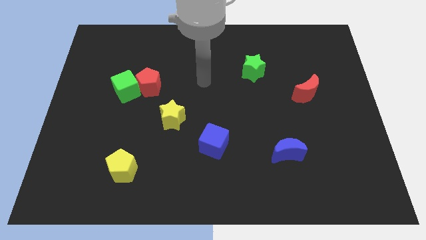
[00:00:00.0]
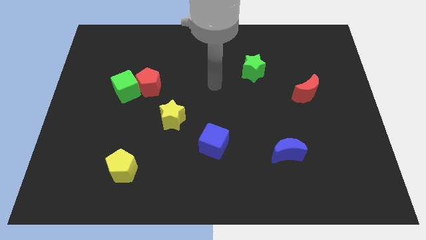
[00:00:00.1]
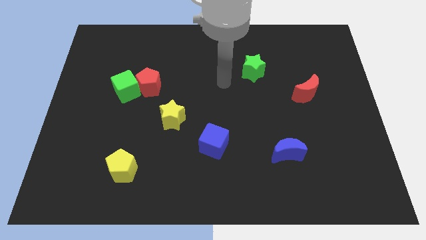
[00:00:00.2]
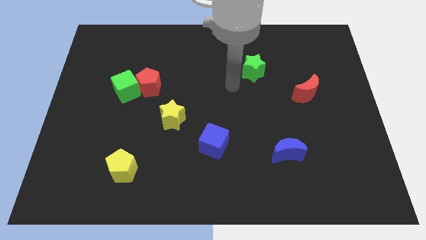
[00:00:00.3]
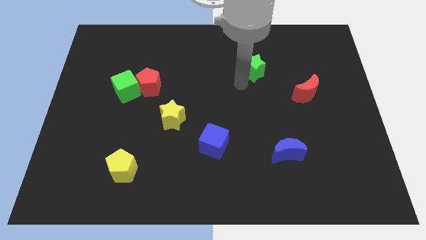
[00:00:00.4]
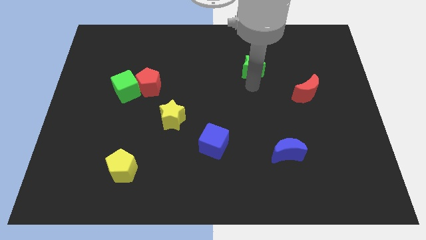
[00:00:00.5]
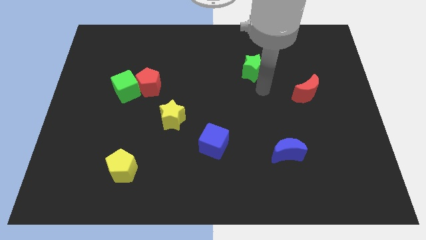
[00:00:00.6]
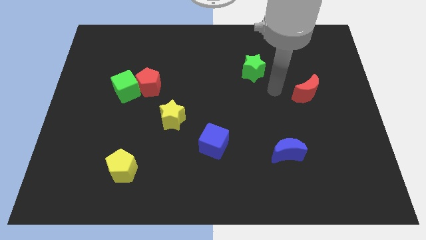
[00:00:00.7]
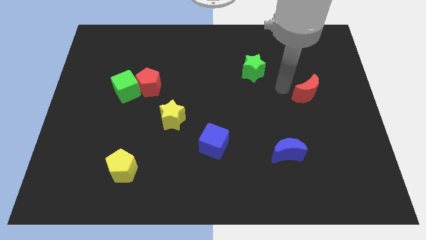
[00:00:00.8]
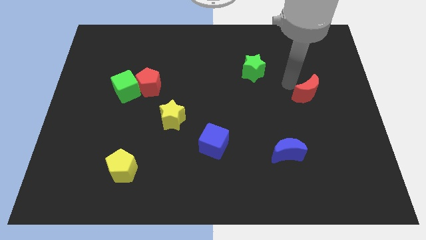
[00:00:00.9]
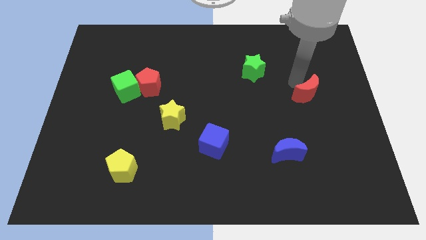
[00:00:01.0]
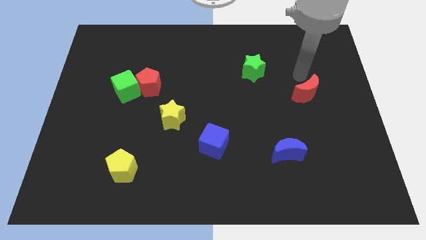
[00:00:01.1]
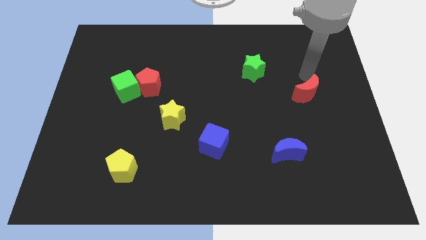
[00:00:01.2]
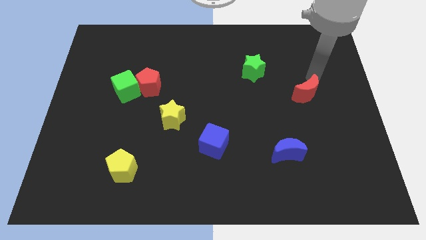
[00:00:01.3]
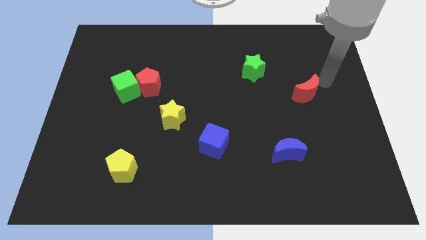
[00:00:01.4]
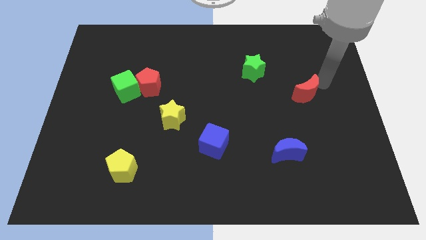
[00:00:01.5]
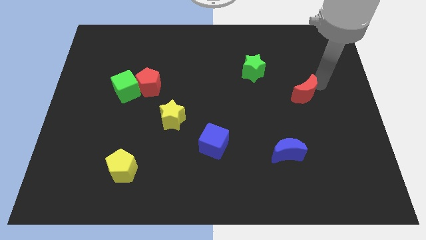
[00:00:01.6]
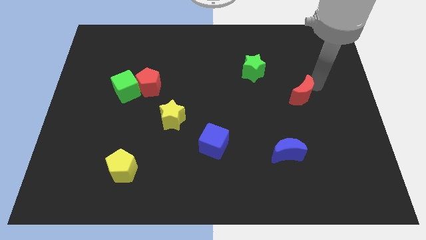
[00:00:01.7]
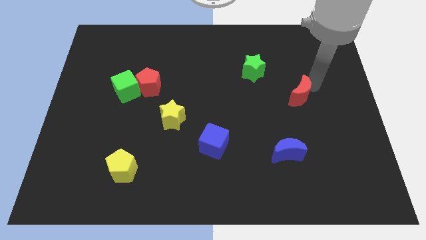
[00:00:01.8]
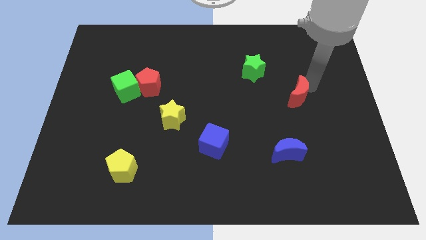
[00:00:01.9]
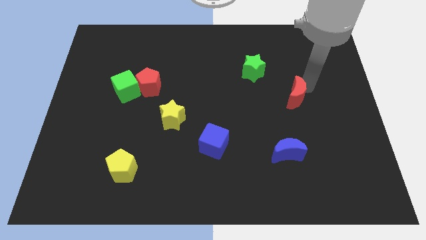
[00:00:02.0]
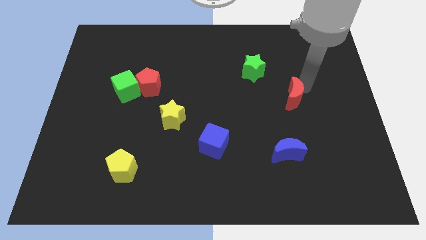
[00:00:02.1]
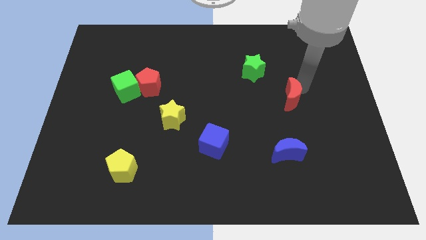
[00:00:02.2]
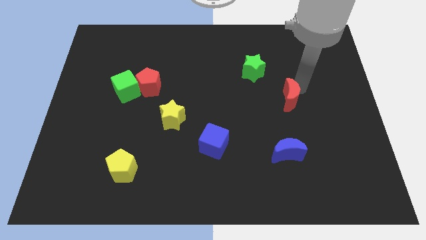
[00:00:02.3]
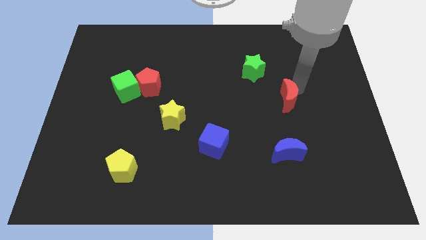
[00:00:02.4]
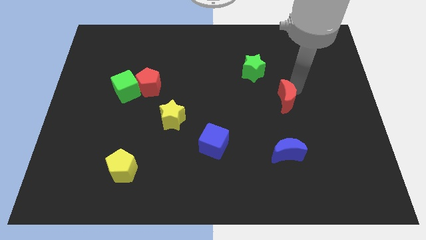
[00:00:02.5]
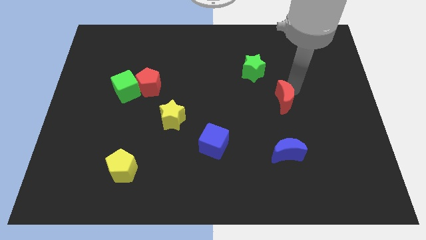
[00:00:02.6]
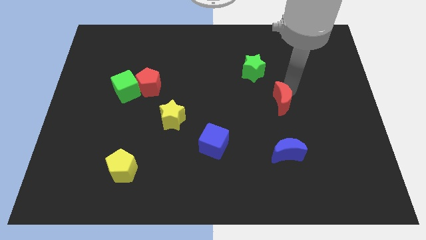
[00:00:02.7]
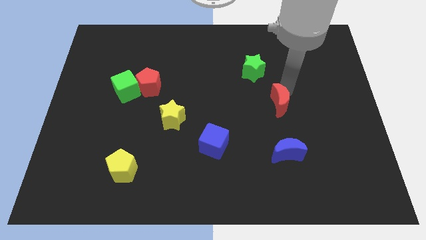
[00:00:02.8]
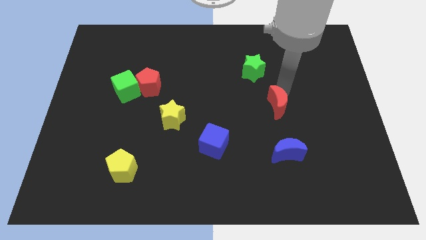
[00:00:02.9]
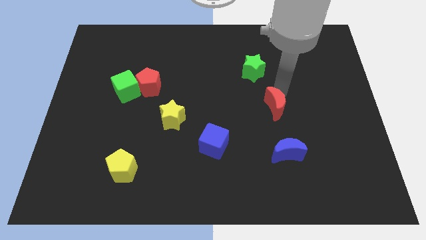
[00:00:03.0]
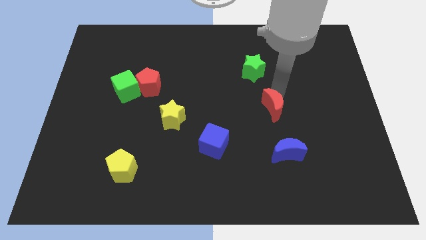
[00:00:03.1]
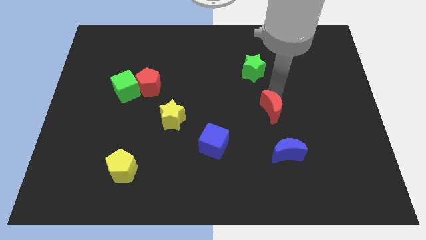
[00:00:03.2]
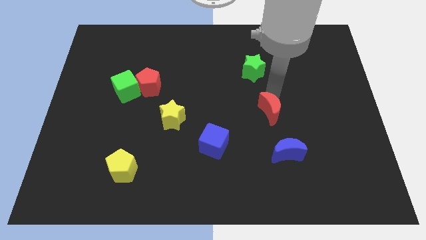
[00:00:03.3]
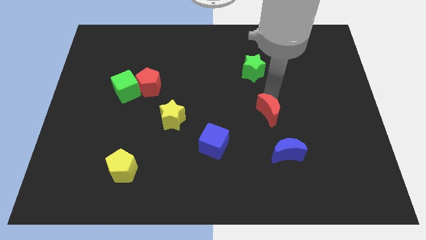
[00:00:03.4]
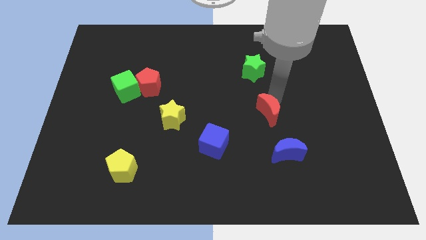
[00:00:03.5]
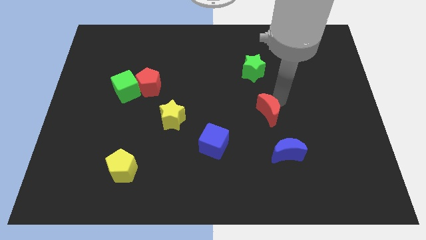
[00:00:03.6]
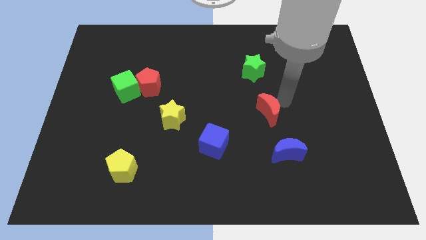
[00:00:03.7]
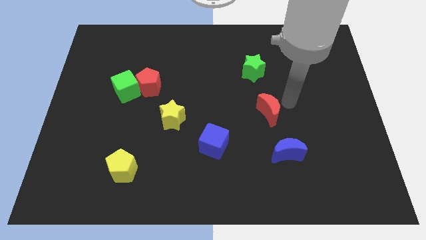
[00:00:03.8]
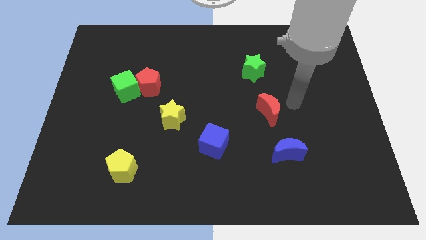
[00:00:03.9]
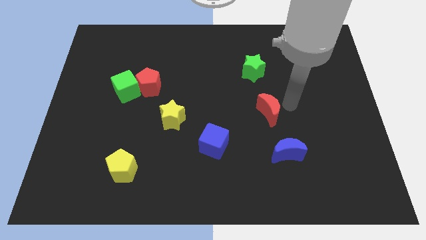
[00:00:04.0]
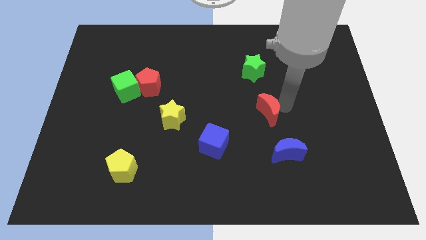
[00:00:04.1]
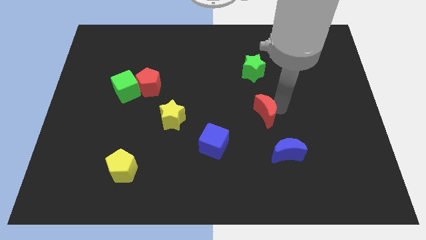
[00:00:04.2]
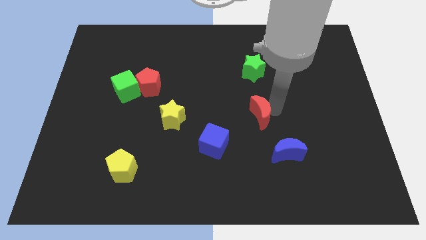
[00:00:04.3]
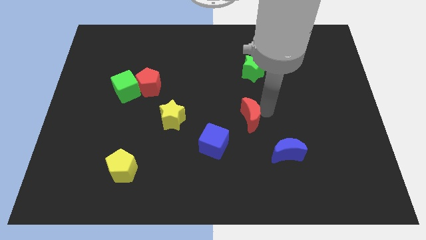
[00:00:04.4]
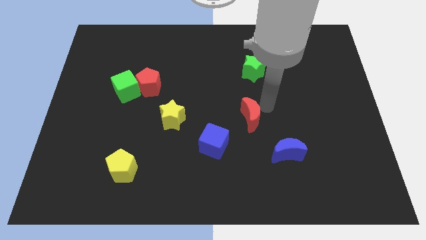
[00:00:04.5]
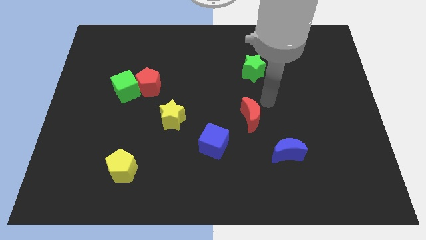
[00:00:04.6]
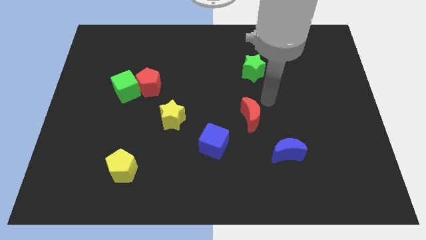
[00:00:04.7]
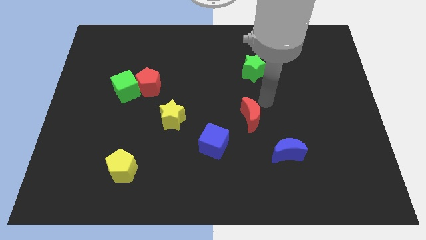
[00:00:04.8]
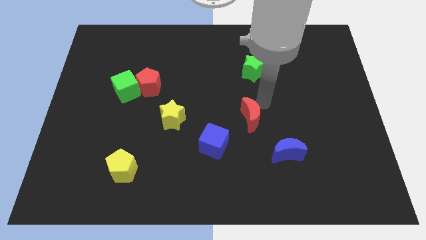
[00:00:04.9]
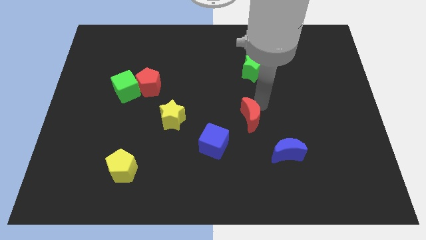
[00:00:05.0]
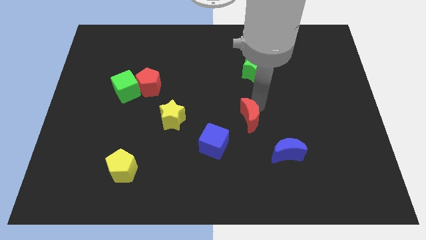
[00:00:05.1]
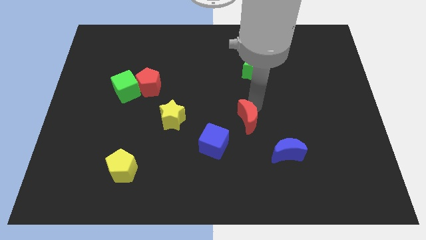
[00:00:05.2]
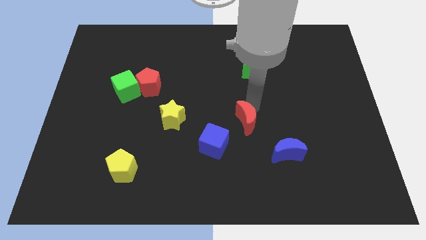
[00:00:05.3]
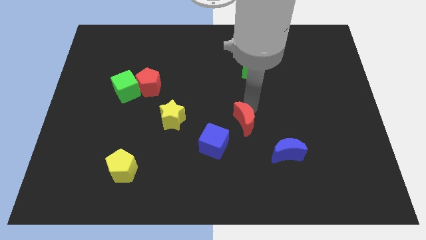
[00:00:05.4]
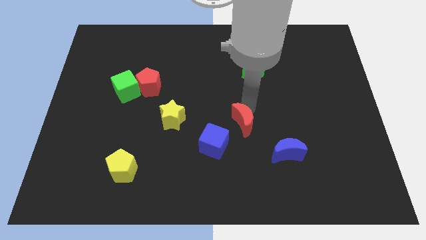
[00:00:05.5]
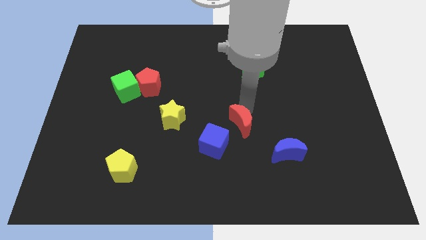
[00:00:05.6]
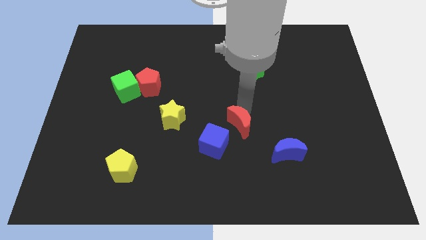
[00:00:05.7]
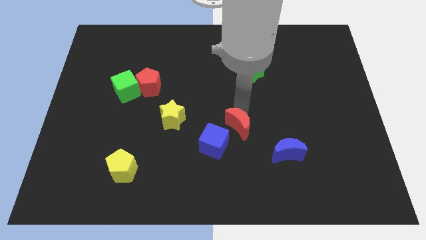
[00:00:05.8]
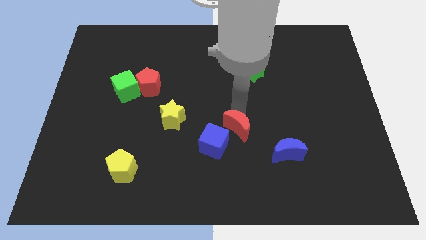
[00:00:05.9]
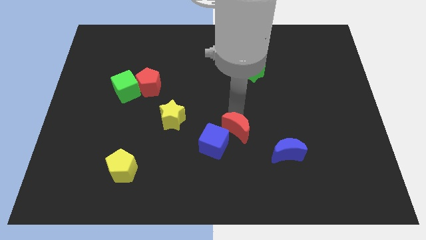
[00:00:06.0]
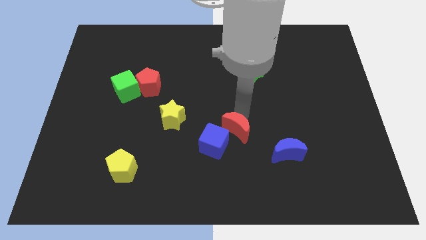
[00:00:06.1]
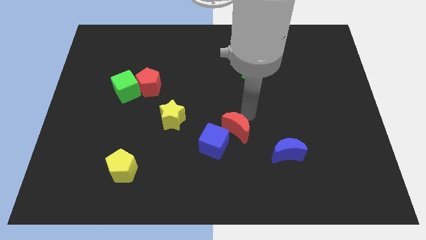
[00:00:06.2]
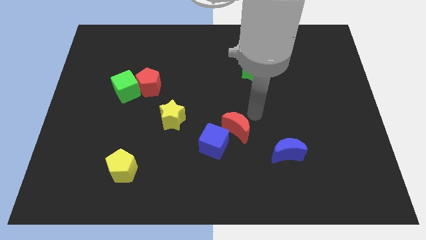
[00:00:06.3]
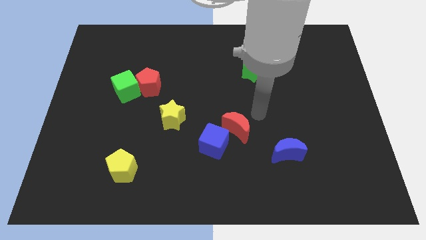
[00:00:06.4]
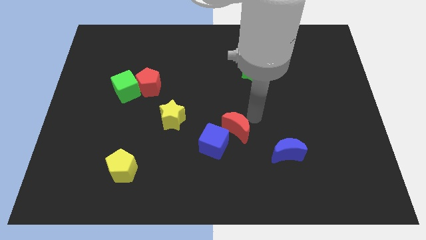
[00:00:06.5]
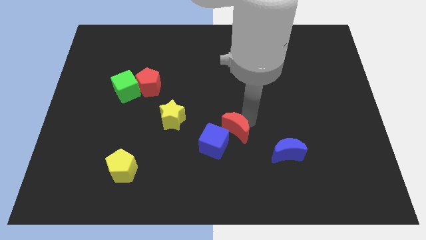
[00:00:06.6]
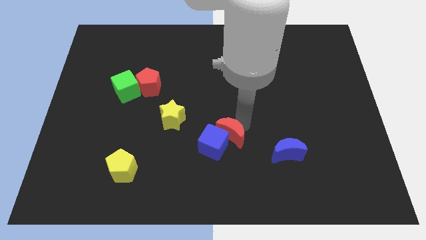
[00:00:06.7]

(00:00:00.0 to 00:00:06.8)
push the red moon next to the blue cube

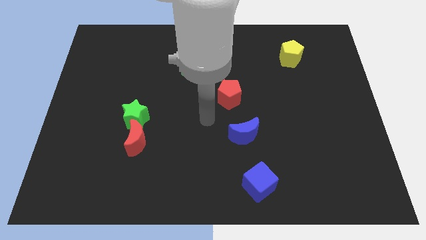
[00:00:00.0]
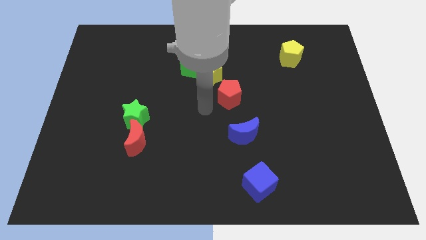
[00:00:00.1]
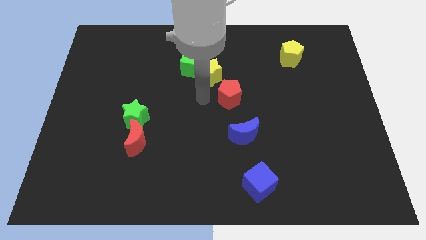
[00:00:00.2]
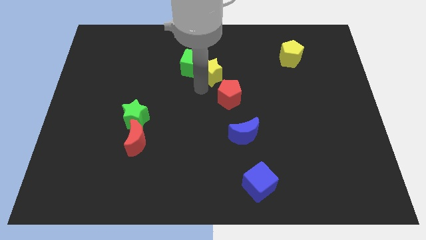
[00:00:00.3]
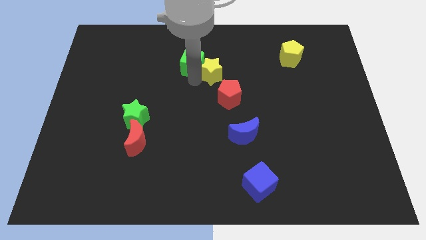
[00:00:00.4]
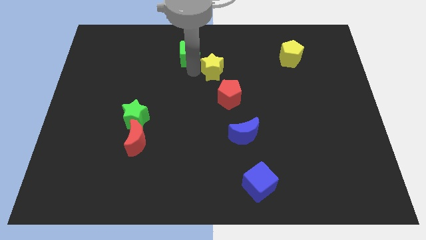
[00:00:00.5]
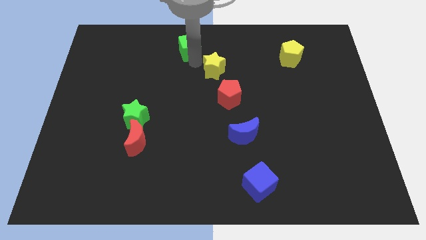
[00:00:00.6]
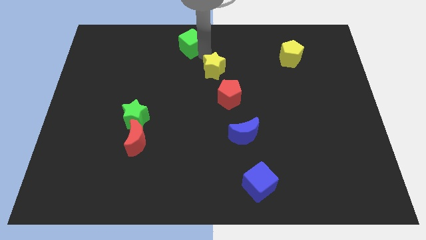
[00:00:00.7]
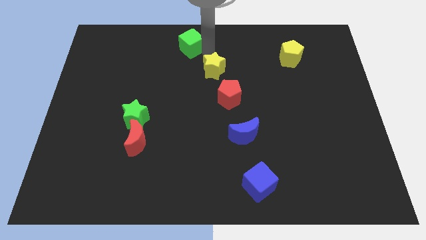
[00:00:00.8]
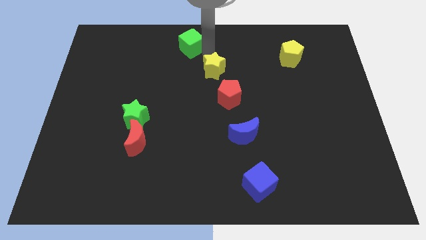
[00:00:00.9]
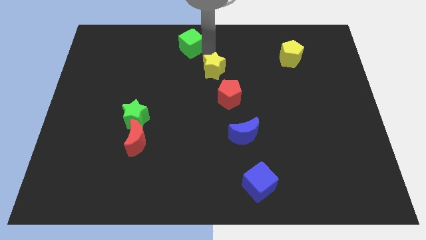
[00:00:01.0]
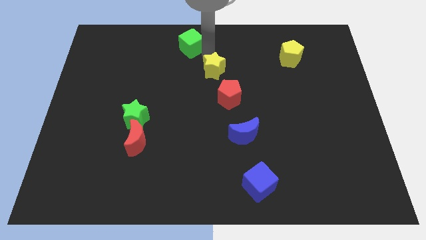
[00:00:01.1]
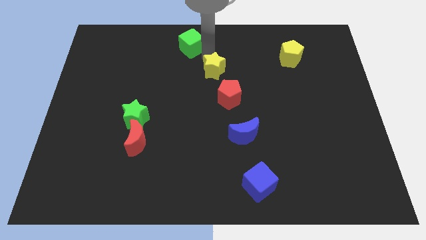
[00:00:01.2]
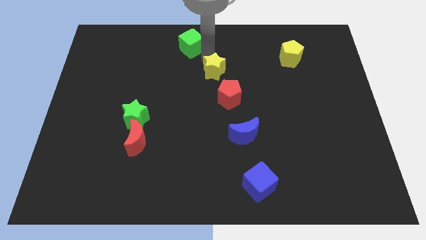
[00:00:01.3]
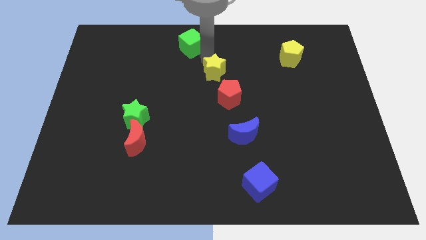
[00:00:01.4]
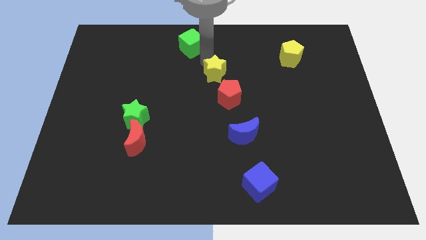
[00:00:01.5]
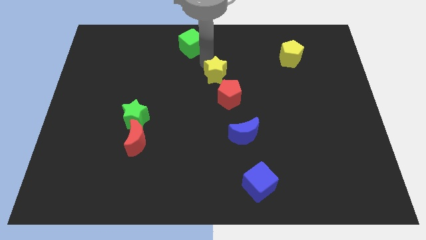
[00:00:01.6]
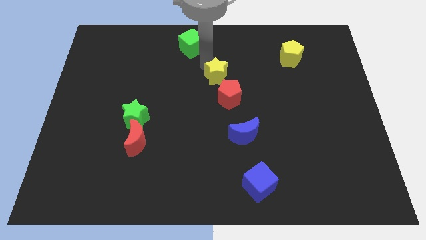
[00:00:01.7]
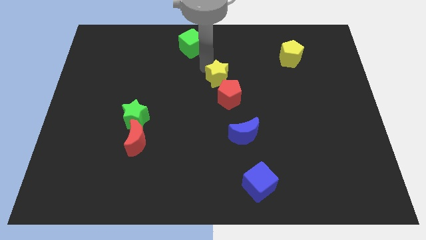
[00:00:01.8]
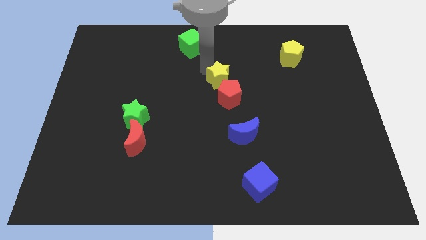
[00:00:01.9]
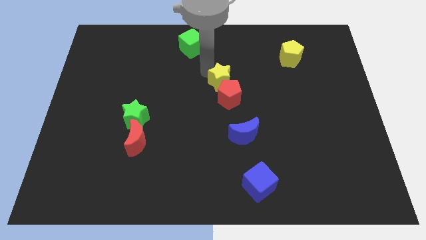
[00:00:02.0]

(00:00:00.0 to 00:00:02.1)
move the yellow star to the red pentagon
